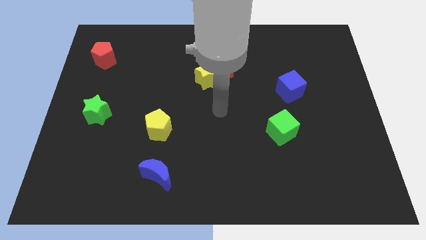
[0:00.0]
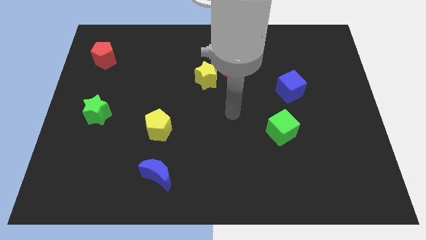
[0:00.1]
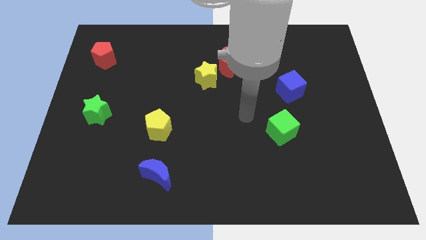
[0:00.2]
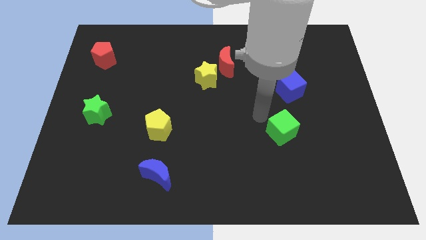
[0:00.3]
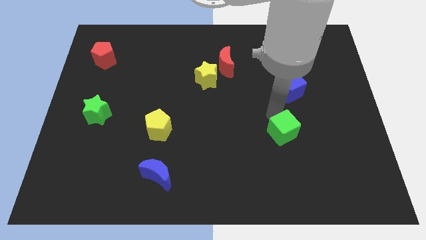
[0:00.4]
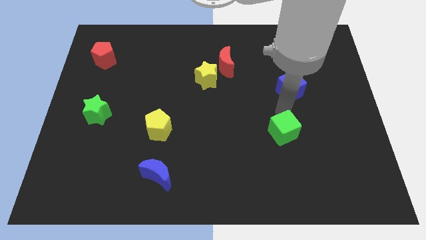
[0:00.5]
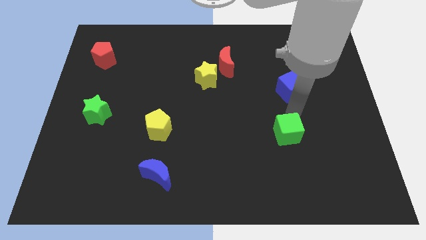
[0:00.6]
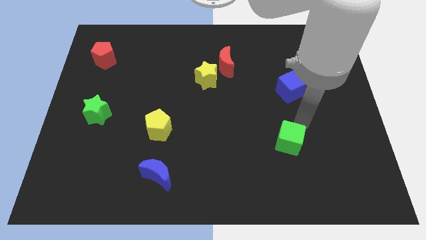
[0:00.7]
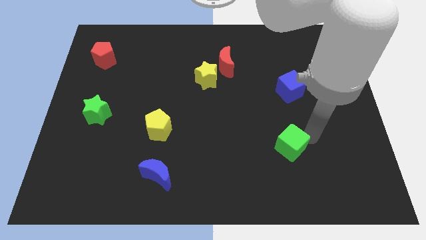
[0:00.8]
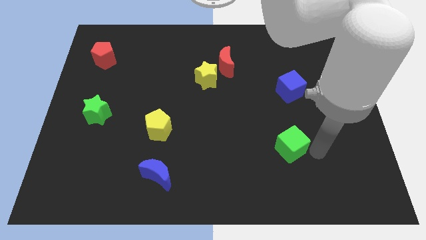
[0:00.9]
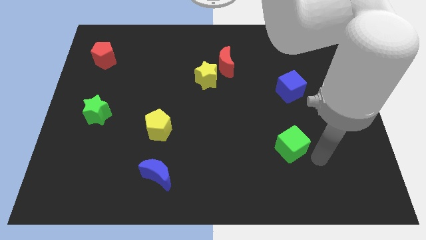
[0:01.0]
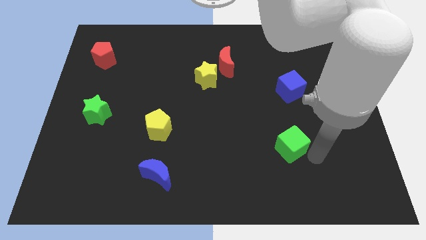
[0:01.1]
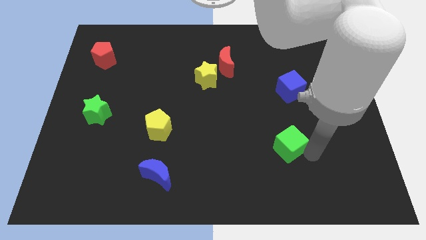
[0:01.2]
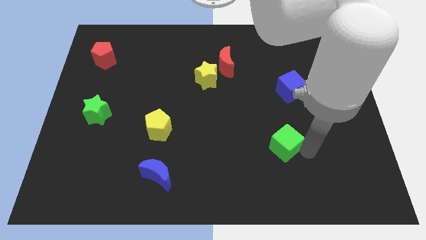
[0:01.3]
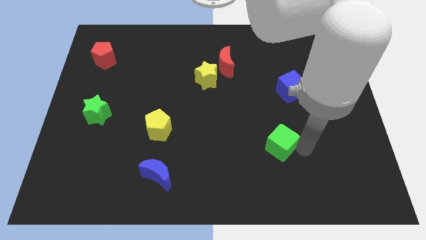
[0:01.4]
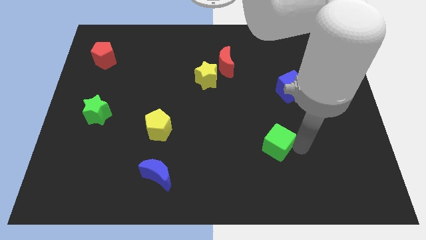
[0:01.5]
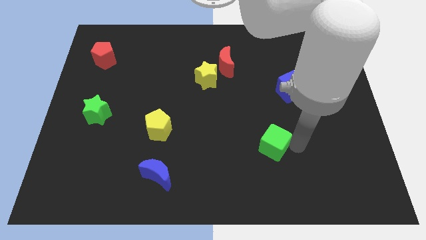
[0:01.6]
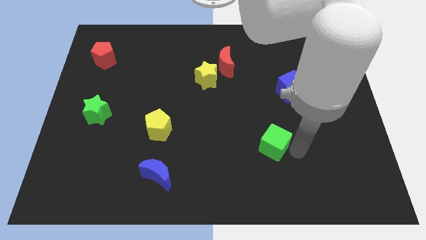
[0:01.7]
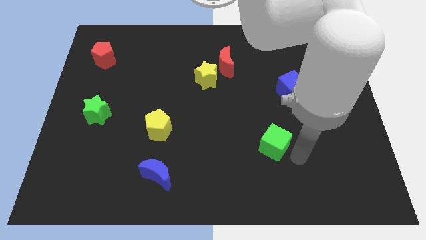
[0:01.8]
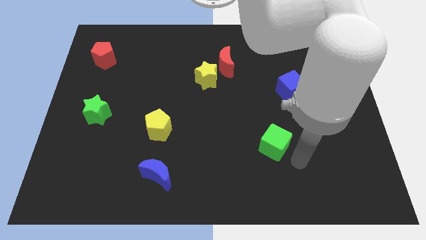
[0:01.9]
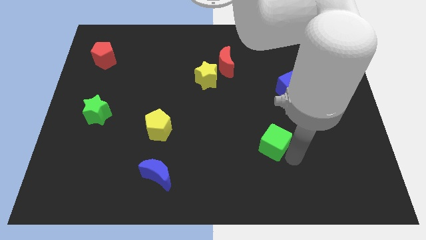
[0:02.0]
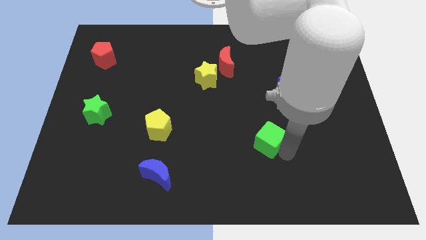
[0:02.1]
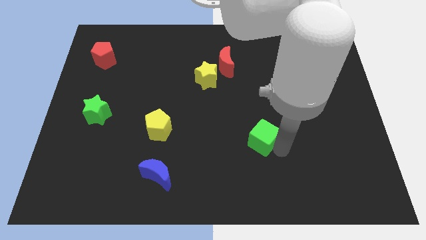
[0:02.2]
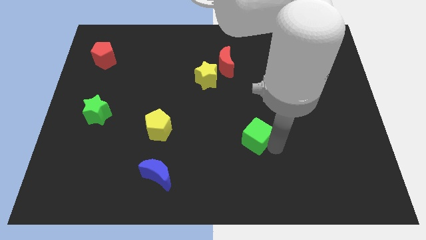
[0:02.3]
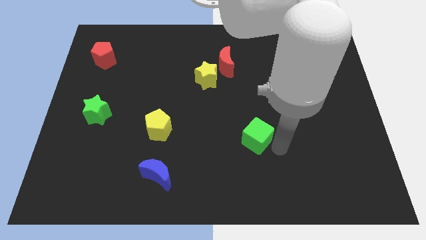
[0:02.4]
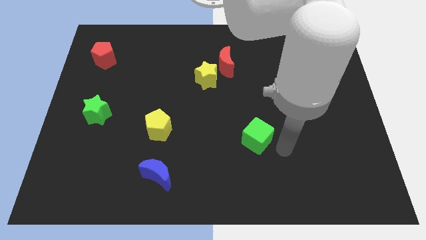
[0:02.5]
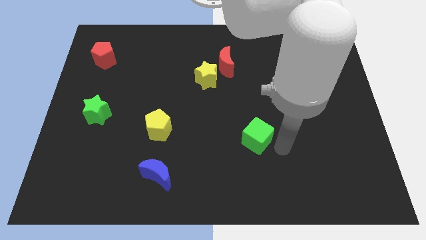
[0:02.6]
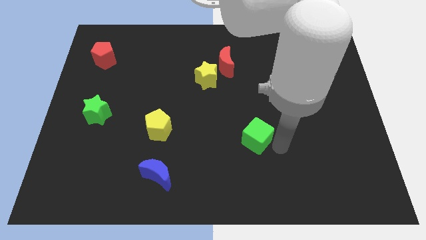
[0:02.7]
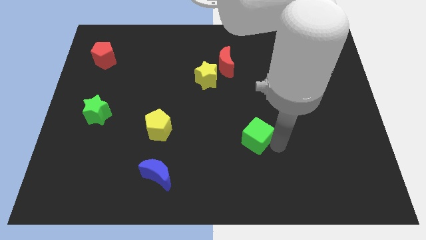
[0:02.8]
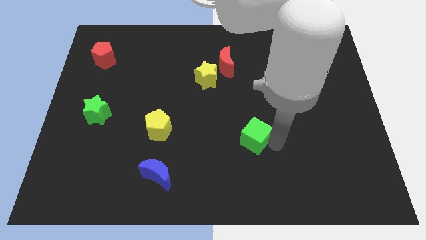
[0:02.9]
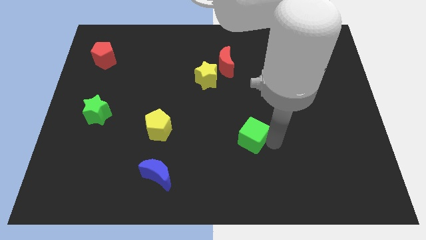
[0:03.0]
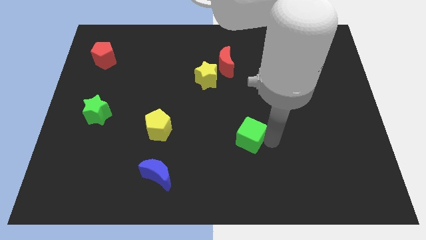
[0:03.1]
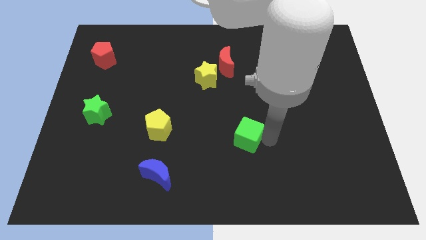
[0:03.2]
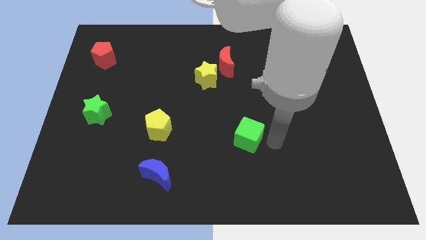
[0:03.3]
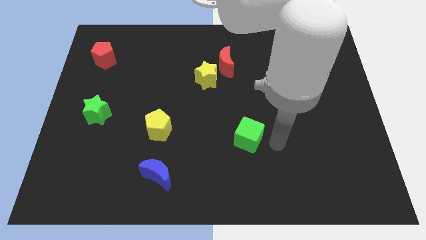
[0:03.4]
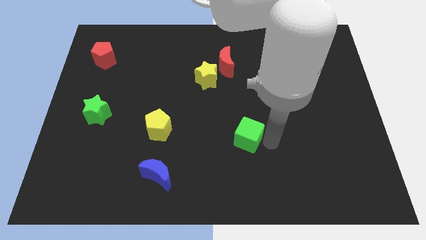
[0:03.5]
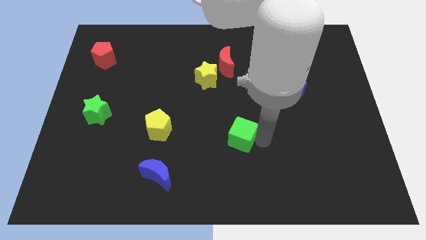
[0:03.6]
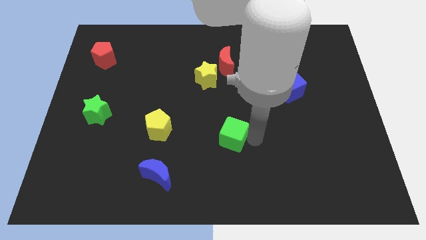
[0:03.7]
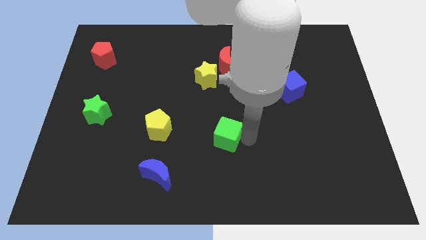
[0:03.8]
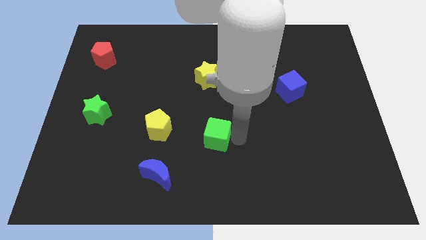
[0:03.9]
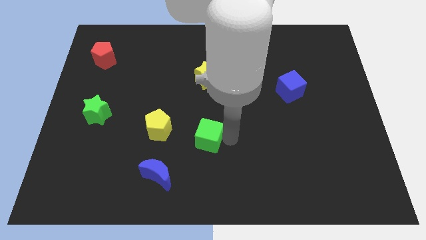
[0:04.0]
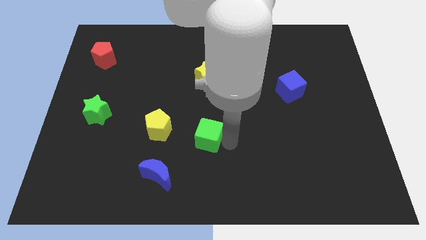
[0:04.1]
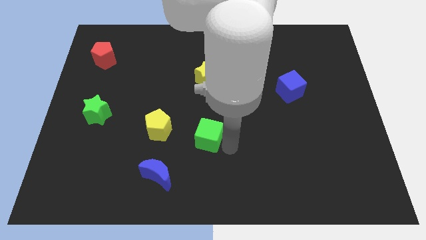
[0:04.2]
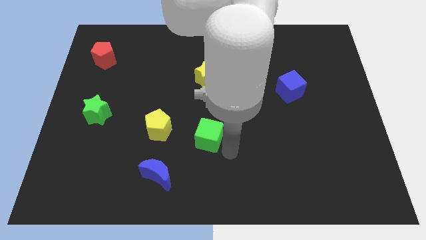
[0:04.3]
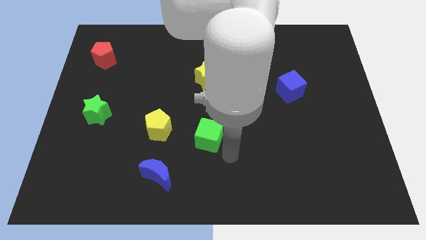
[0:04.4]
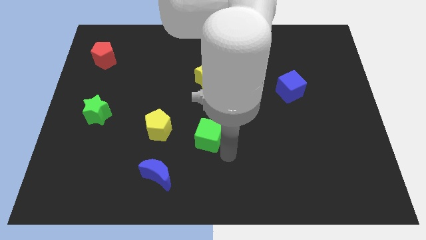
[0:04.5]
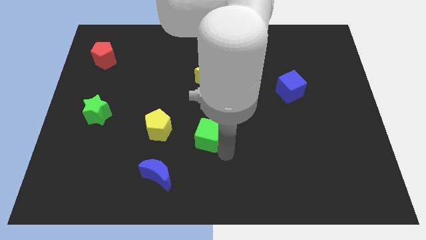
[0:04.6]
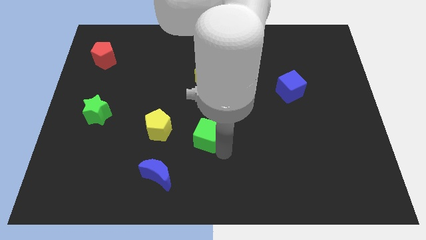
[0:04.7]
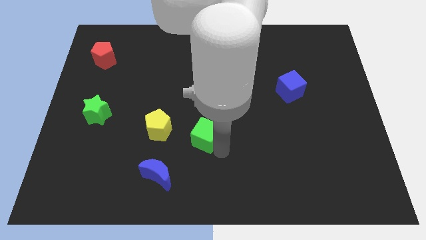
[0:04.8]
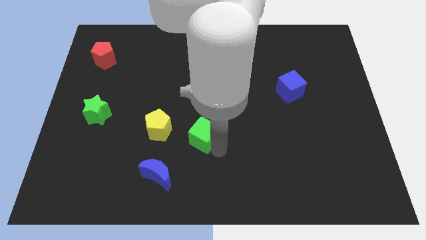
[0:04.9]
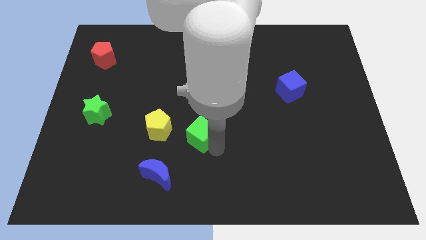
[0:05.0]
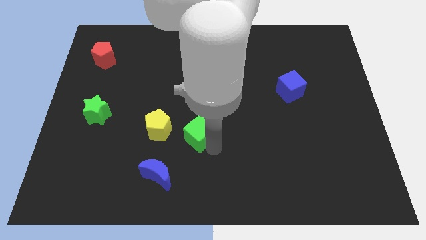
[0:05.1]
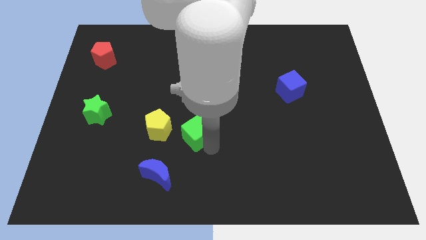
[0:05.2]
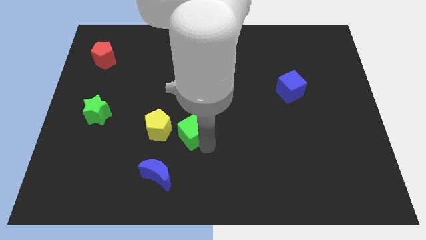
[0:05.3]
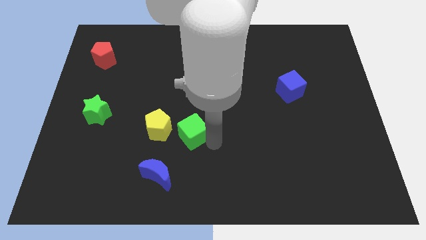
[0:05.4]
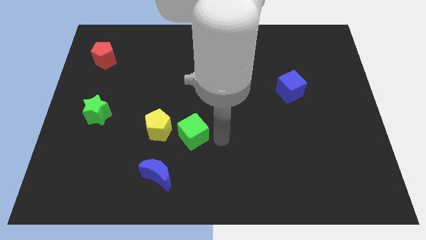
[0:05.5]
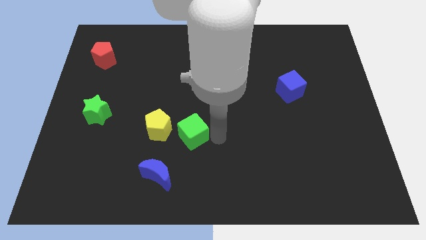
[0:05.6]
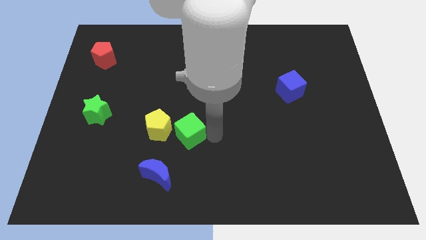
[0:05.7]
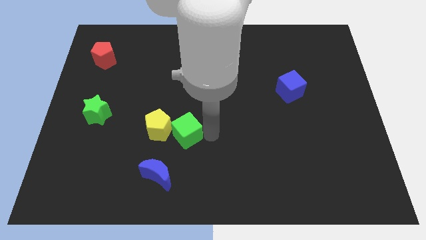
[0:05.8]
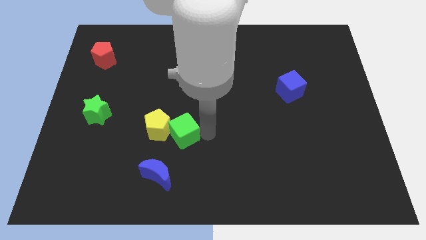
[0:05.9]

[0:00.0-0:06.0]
slide the green cube towards the yellow pentagon

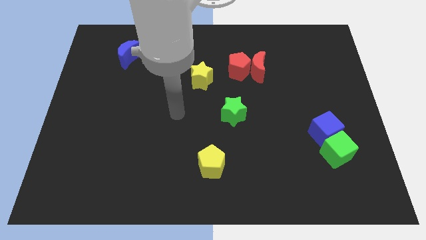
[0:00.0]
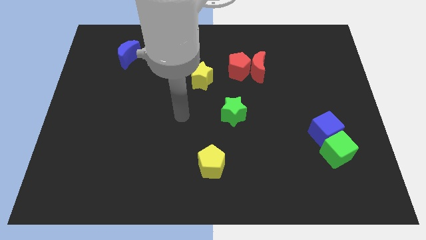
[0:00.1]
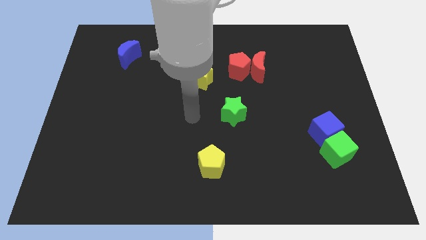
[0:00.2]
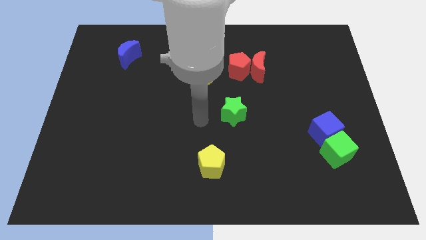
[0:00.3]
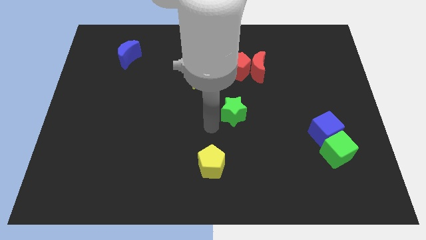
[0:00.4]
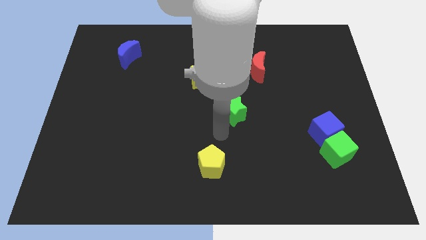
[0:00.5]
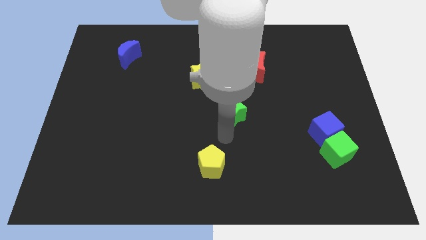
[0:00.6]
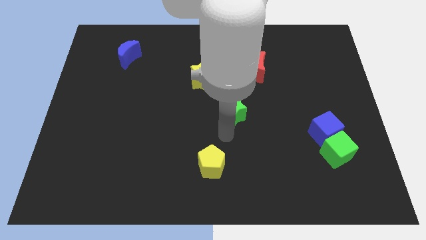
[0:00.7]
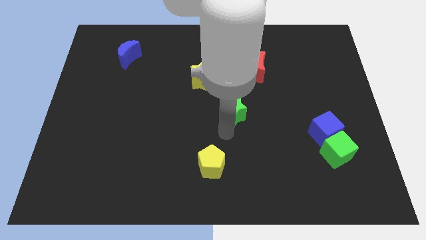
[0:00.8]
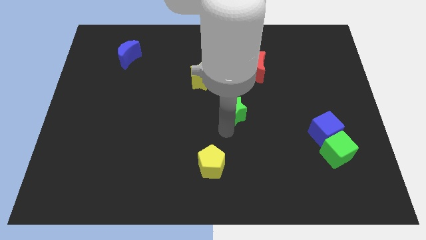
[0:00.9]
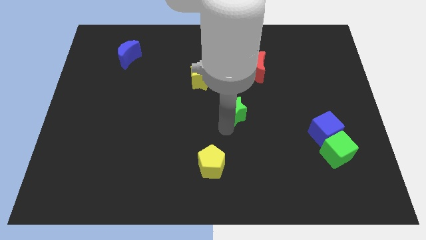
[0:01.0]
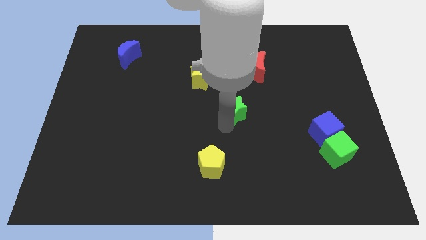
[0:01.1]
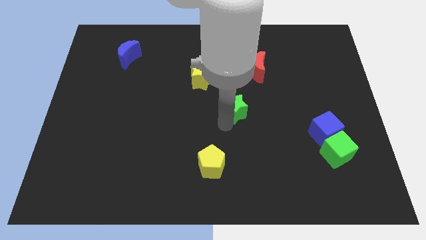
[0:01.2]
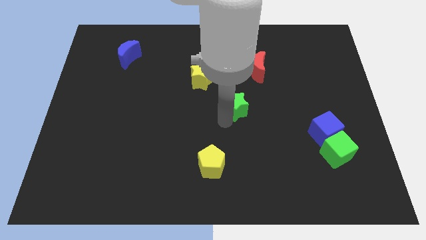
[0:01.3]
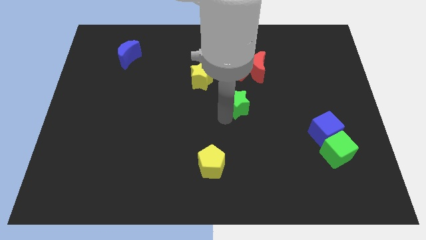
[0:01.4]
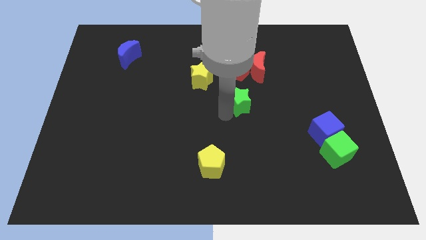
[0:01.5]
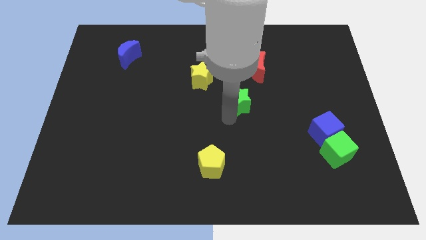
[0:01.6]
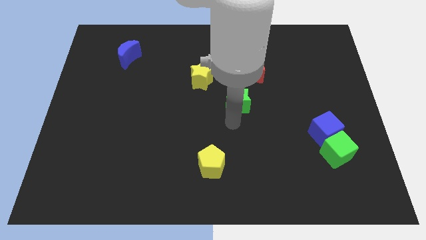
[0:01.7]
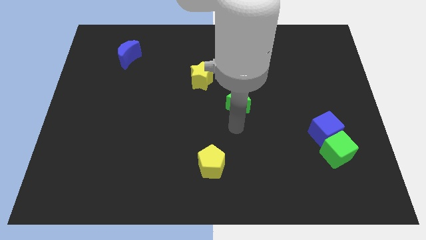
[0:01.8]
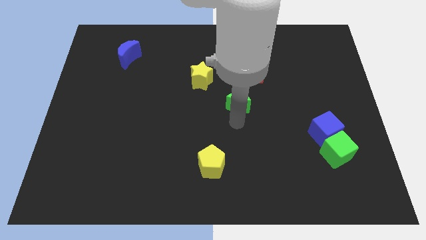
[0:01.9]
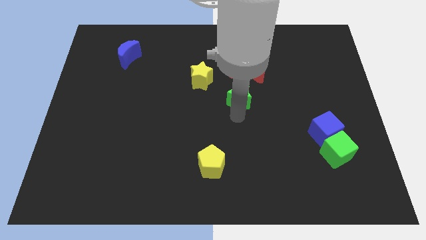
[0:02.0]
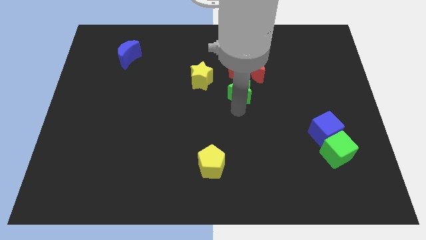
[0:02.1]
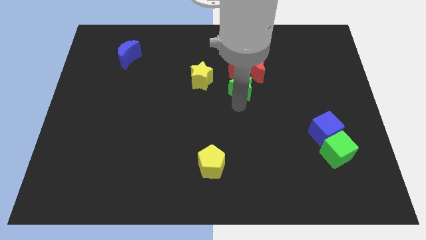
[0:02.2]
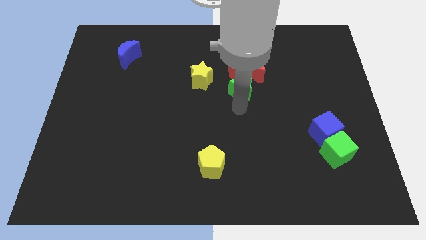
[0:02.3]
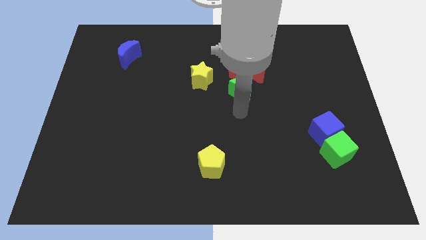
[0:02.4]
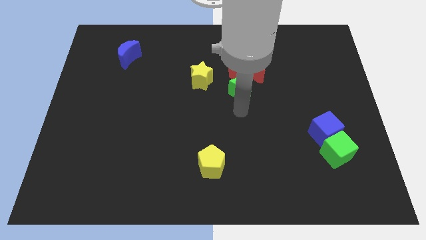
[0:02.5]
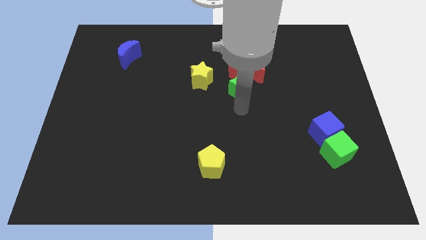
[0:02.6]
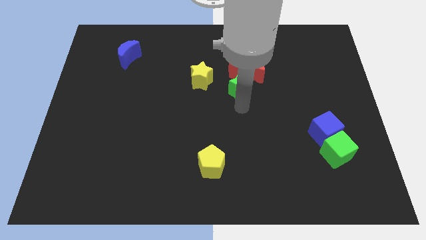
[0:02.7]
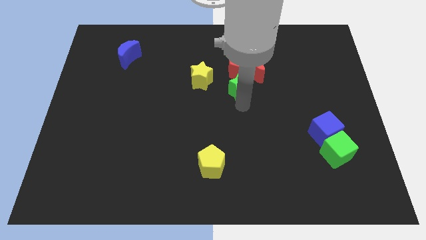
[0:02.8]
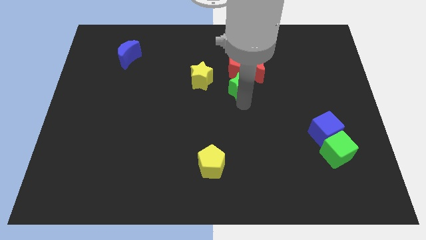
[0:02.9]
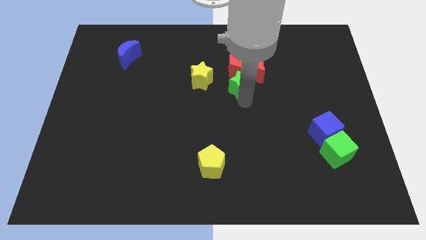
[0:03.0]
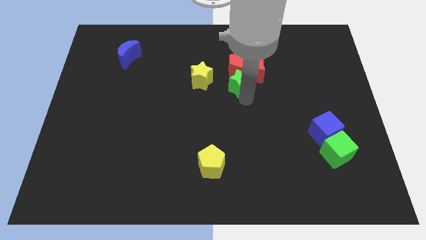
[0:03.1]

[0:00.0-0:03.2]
put the green star towards the red pentagon
